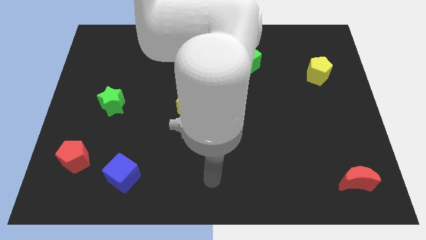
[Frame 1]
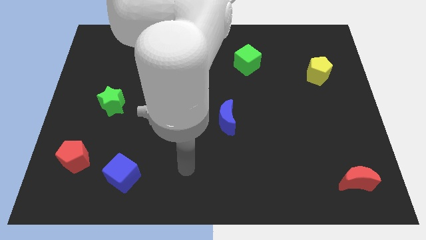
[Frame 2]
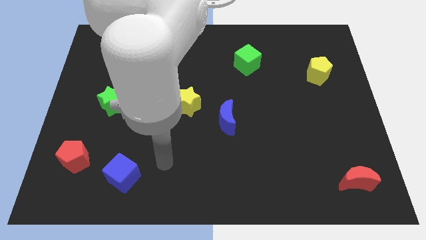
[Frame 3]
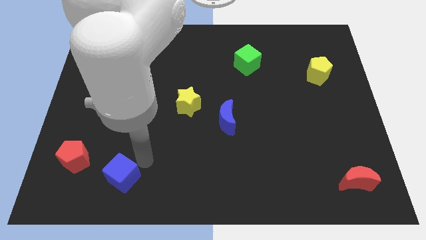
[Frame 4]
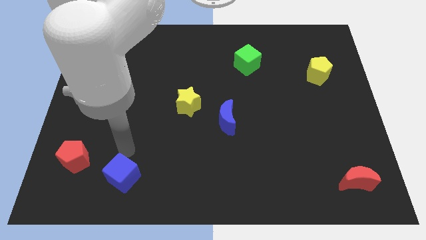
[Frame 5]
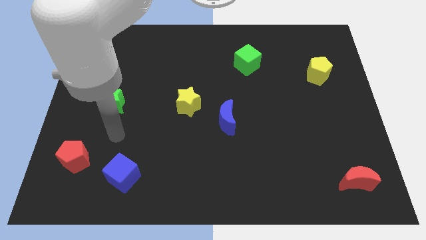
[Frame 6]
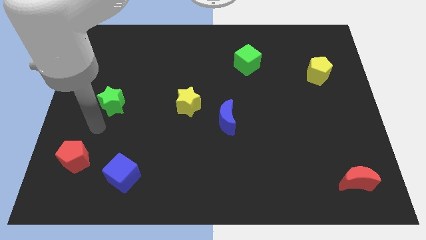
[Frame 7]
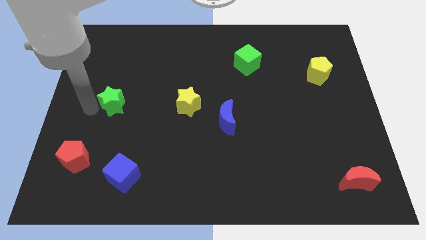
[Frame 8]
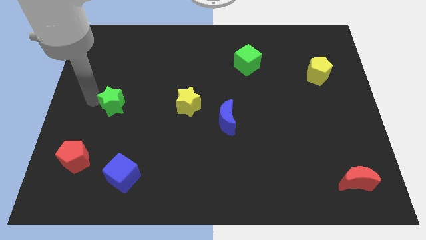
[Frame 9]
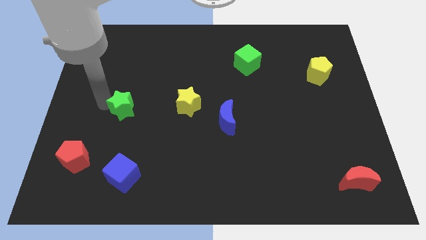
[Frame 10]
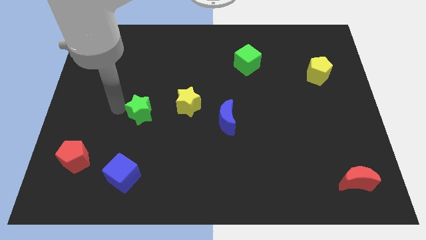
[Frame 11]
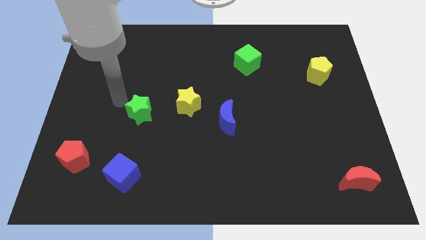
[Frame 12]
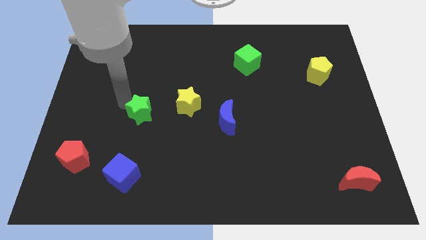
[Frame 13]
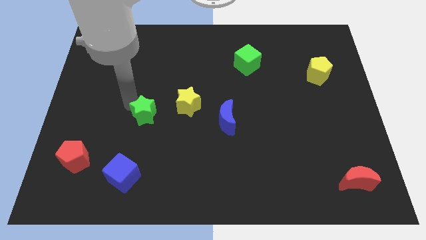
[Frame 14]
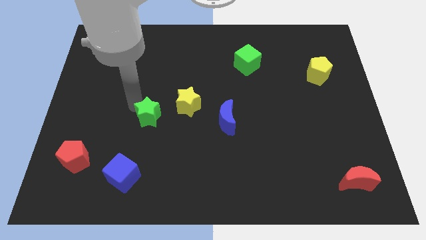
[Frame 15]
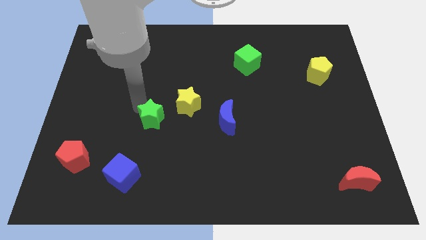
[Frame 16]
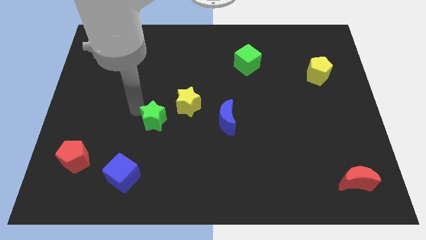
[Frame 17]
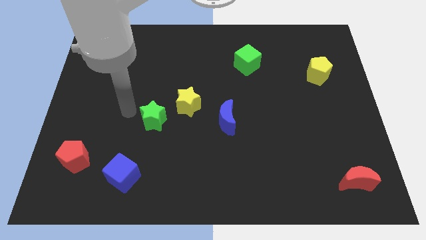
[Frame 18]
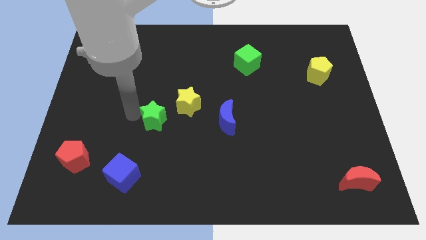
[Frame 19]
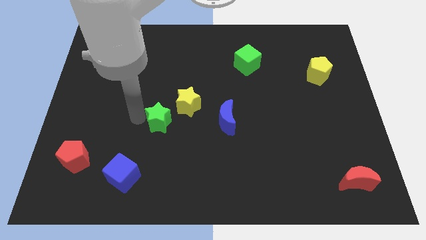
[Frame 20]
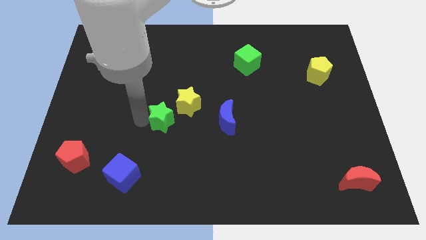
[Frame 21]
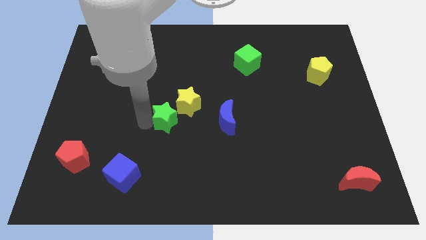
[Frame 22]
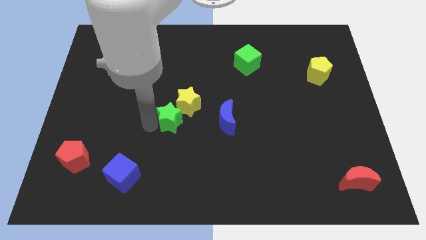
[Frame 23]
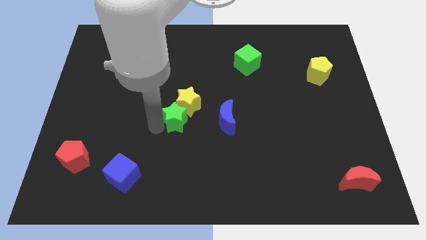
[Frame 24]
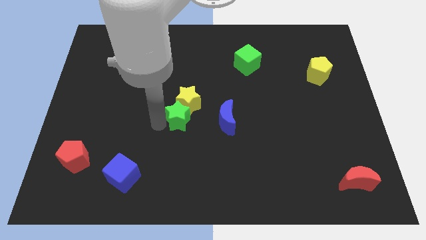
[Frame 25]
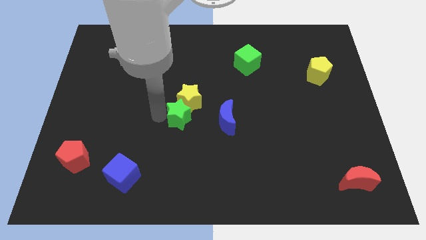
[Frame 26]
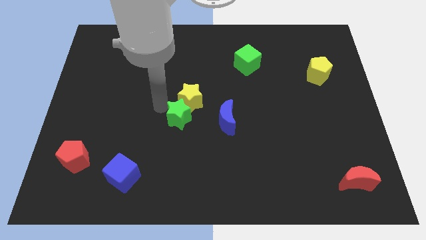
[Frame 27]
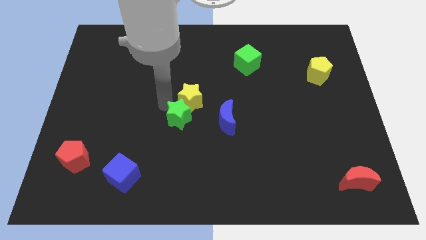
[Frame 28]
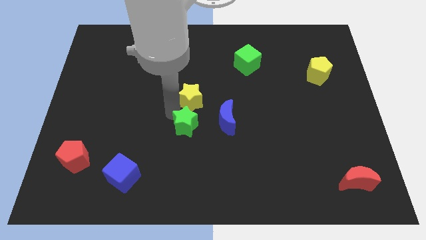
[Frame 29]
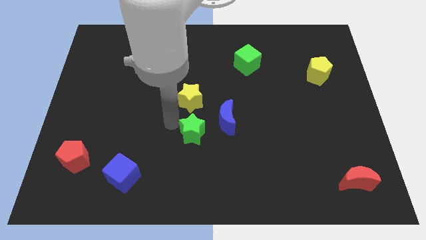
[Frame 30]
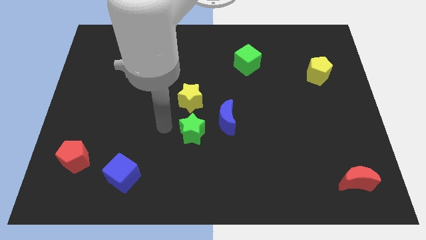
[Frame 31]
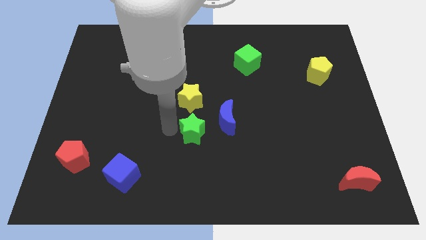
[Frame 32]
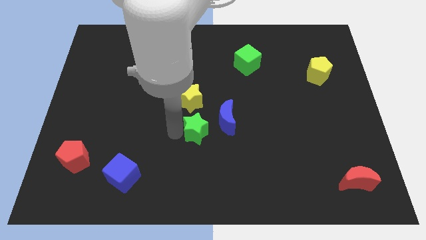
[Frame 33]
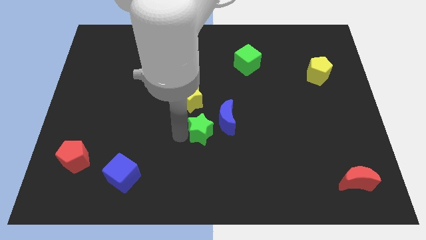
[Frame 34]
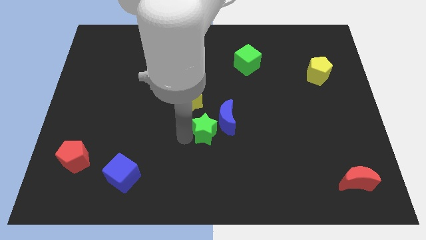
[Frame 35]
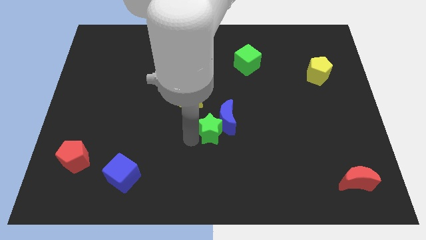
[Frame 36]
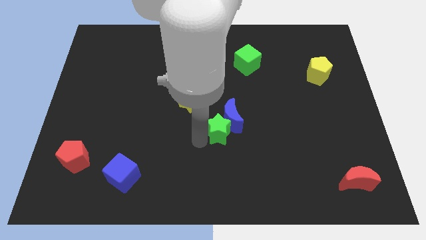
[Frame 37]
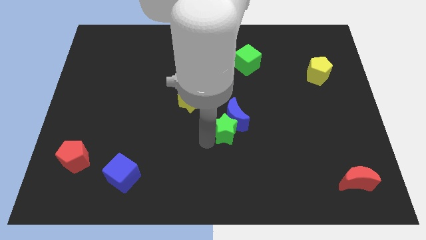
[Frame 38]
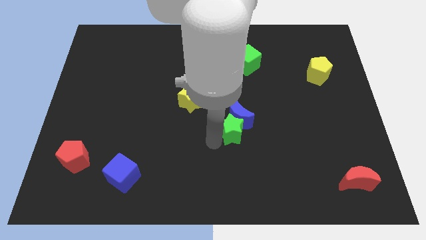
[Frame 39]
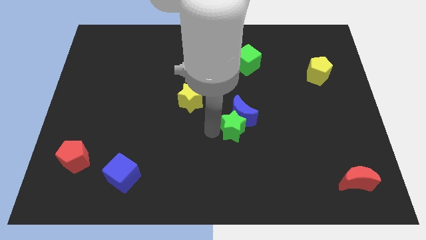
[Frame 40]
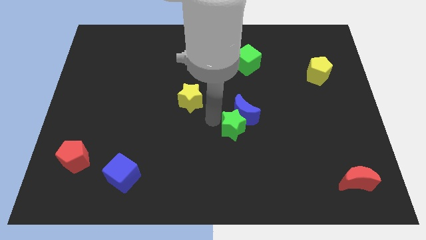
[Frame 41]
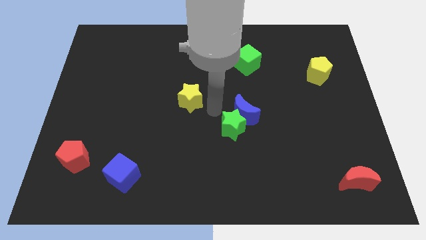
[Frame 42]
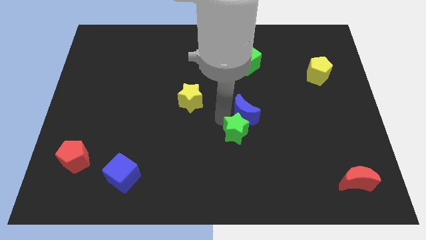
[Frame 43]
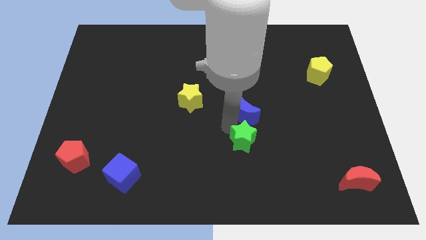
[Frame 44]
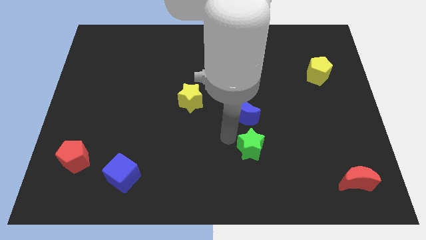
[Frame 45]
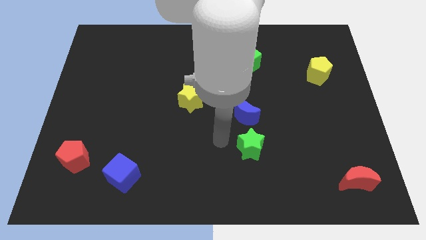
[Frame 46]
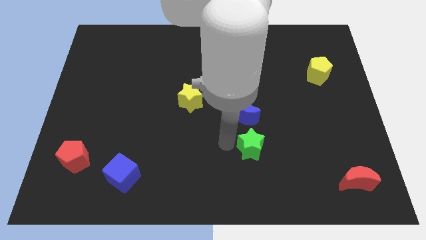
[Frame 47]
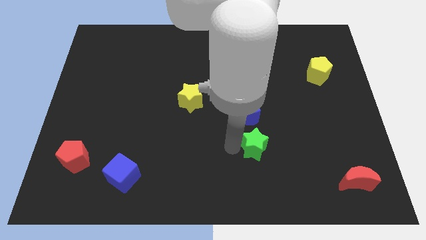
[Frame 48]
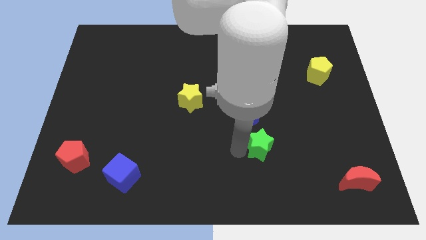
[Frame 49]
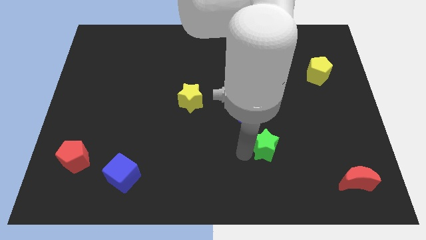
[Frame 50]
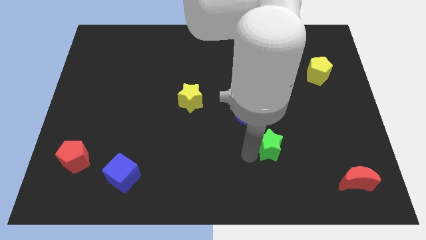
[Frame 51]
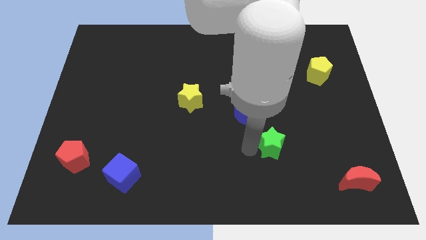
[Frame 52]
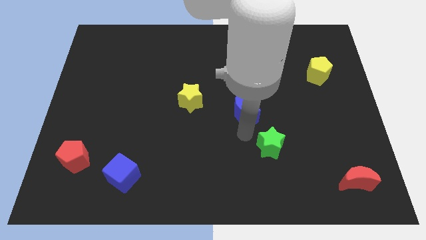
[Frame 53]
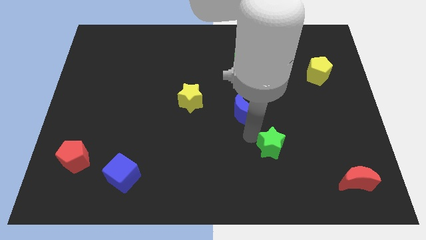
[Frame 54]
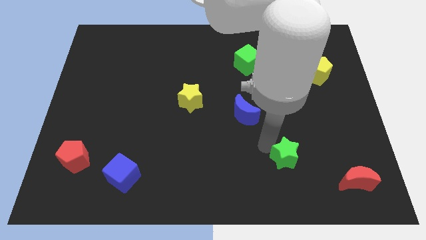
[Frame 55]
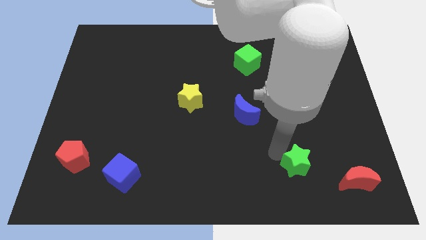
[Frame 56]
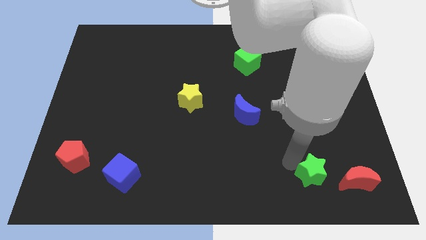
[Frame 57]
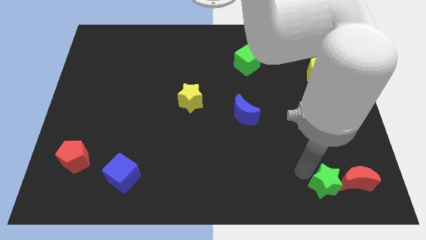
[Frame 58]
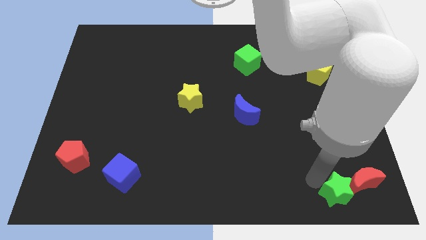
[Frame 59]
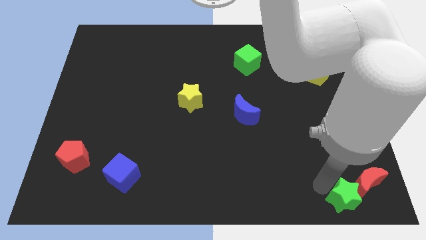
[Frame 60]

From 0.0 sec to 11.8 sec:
slide the green star to the bottom right corner
